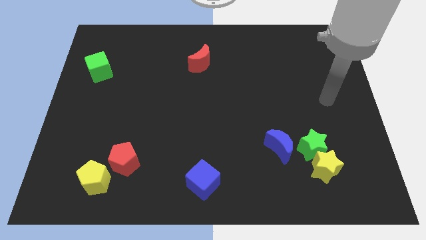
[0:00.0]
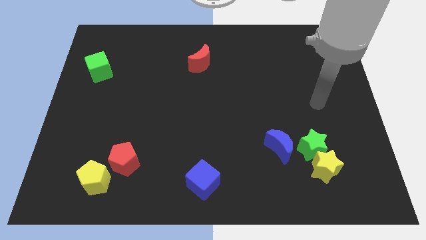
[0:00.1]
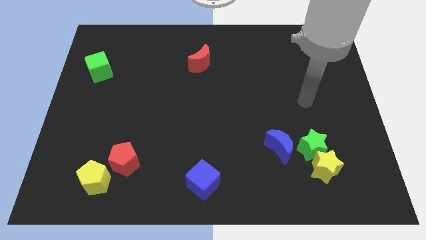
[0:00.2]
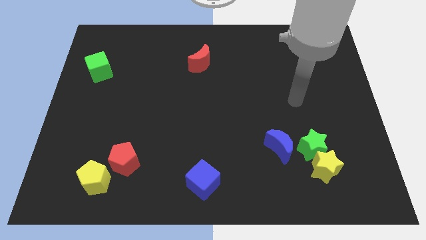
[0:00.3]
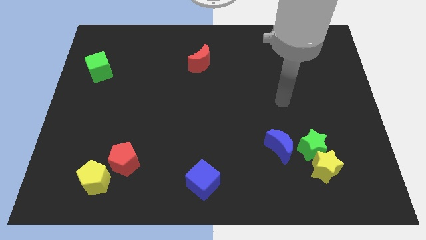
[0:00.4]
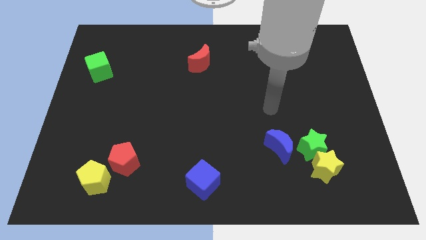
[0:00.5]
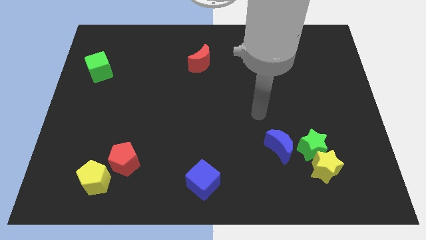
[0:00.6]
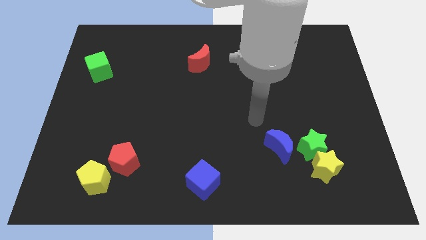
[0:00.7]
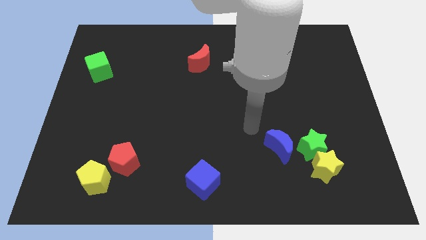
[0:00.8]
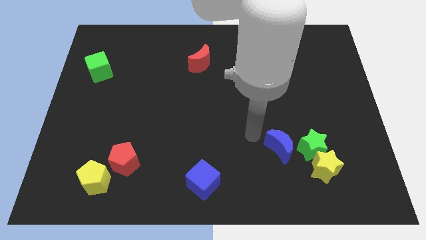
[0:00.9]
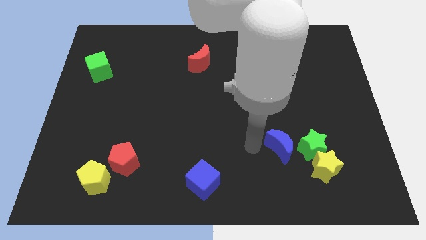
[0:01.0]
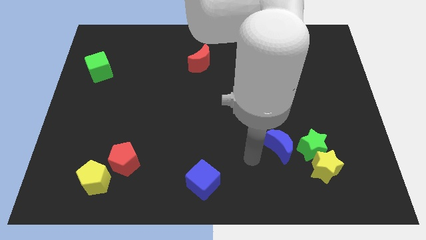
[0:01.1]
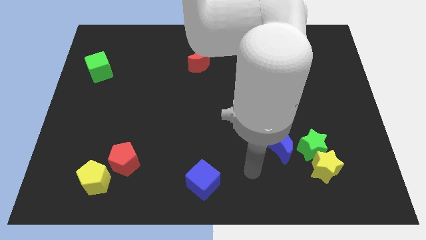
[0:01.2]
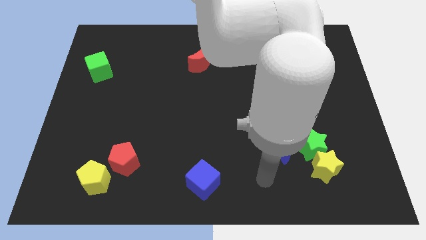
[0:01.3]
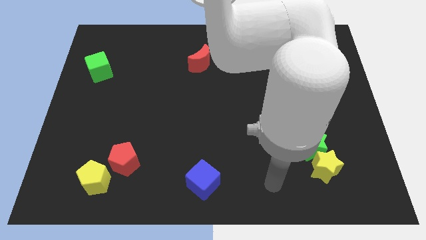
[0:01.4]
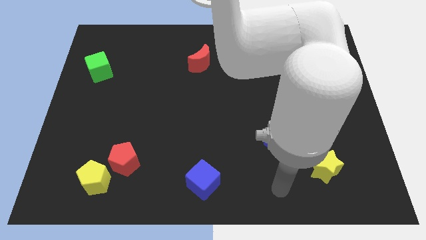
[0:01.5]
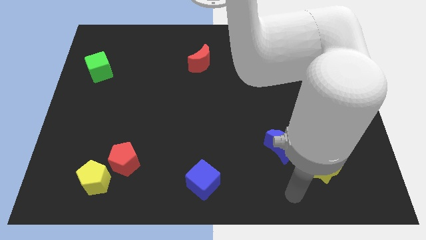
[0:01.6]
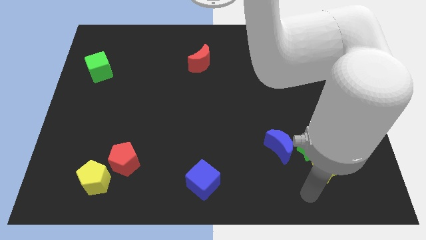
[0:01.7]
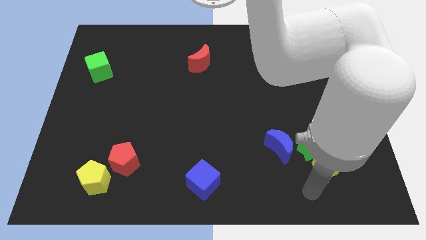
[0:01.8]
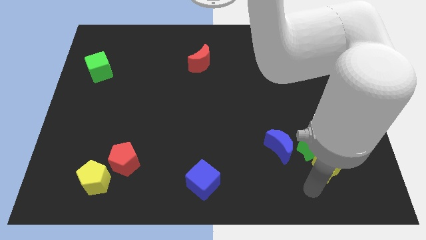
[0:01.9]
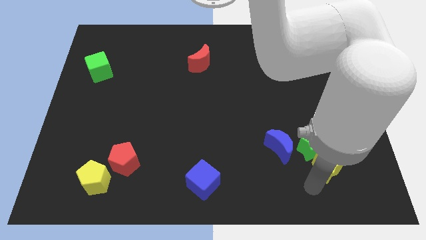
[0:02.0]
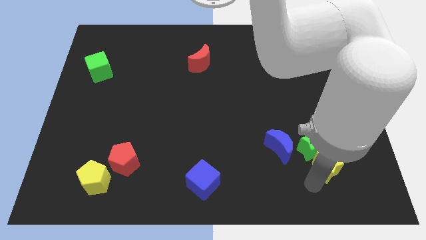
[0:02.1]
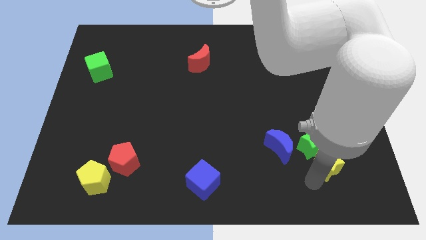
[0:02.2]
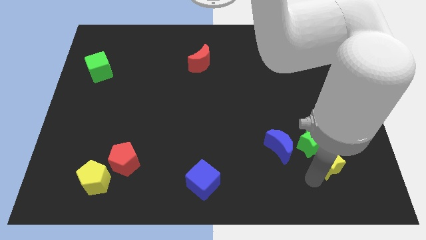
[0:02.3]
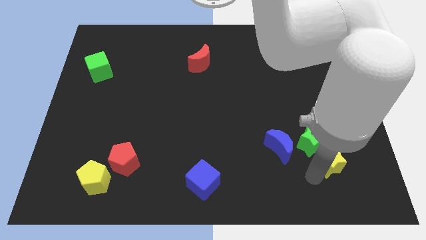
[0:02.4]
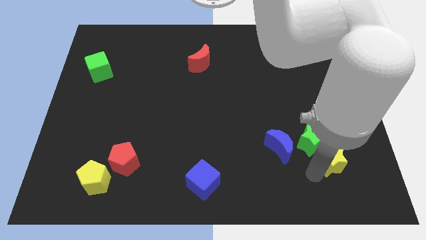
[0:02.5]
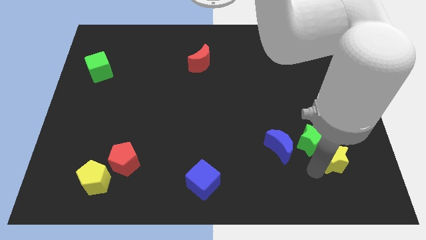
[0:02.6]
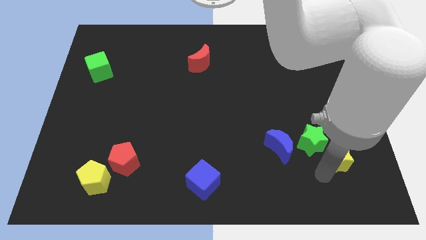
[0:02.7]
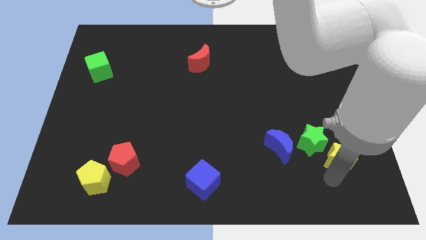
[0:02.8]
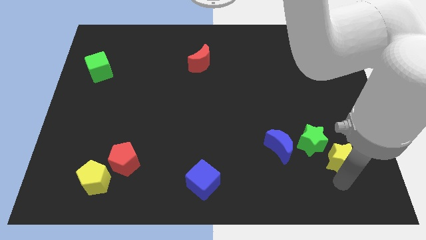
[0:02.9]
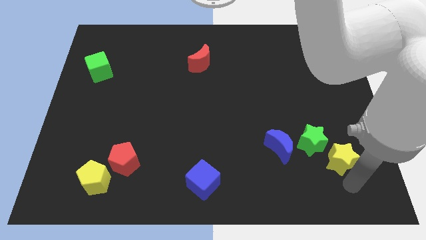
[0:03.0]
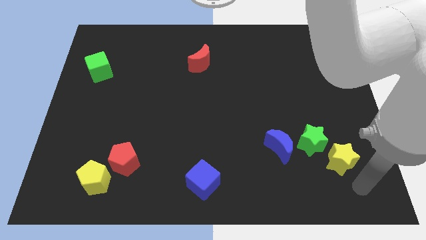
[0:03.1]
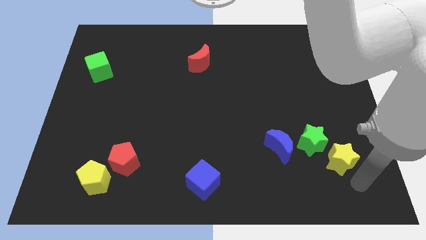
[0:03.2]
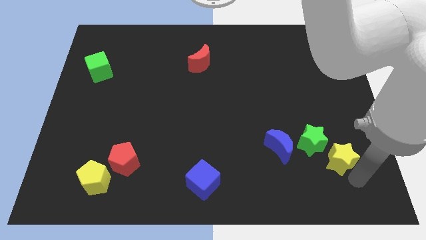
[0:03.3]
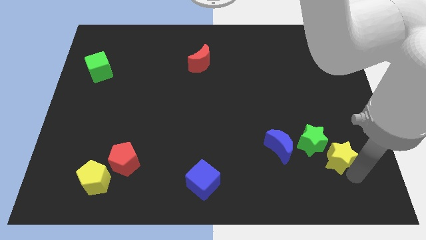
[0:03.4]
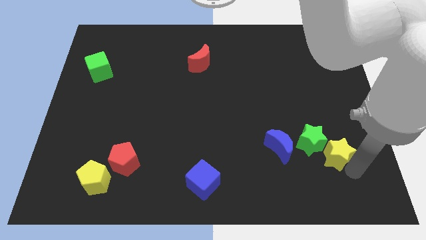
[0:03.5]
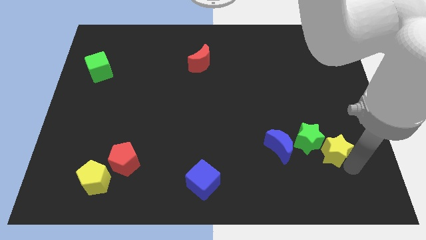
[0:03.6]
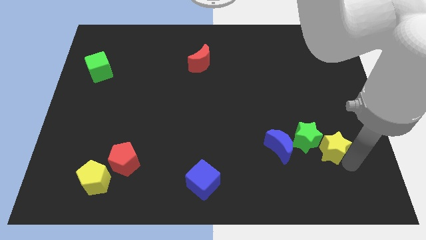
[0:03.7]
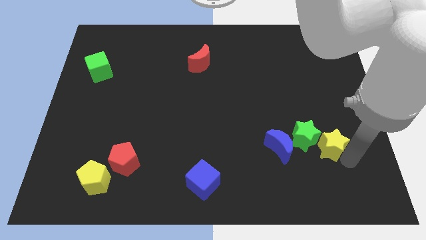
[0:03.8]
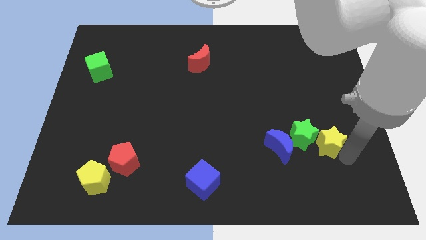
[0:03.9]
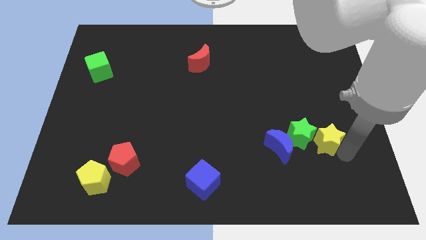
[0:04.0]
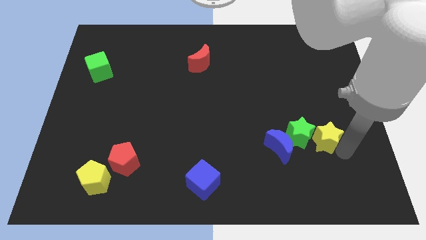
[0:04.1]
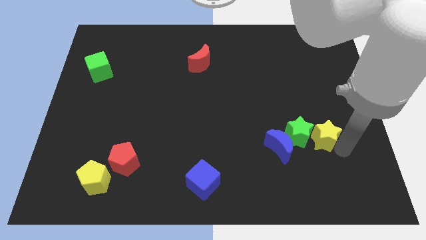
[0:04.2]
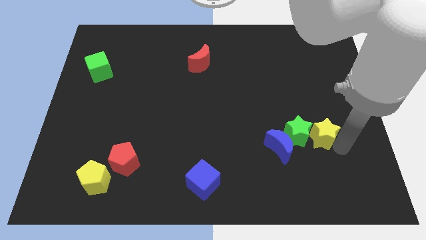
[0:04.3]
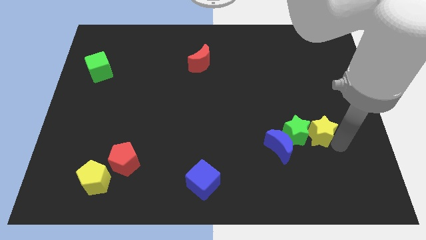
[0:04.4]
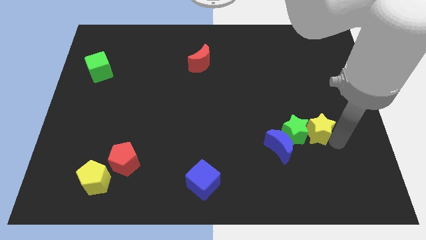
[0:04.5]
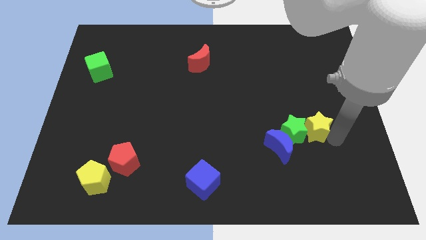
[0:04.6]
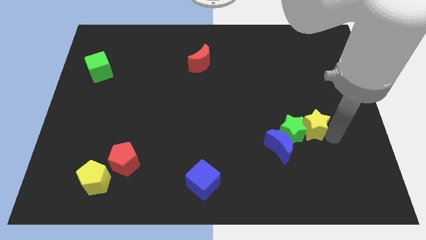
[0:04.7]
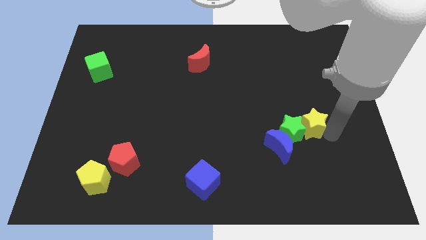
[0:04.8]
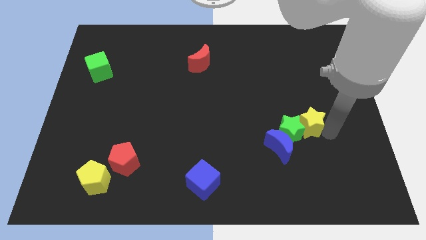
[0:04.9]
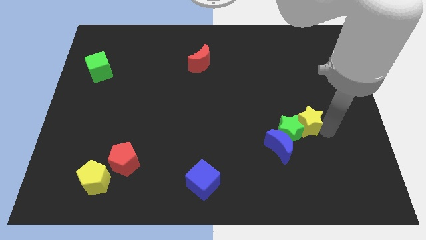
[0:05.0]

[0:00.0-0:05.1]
push the yellow star somewhat upwards and then left

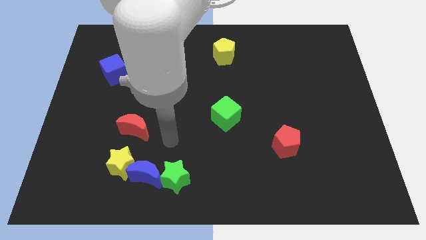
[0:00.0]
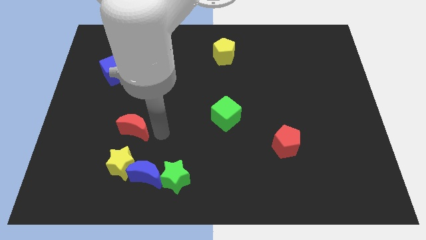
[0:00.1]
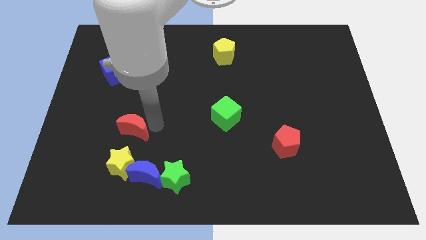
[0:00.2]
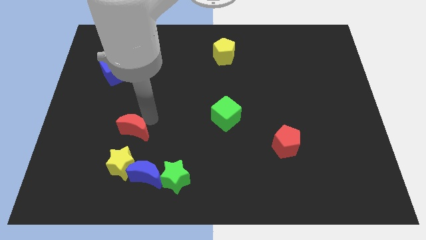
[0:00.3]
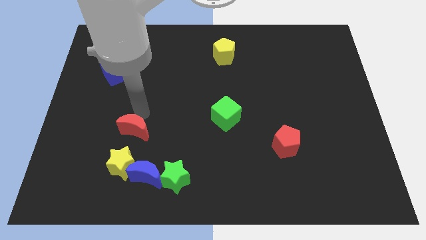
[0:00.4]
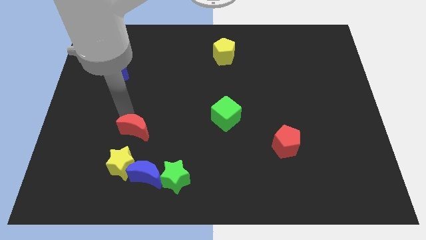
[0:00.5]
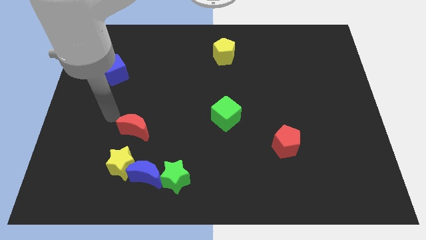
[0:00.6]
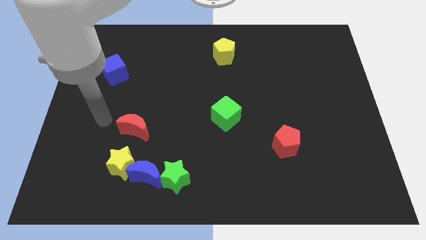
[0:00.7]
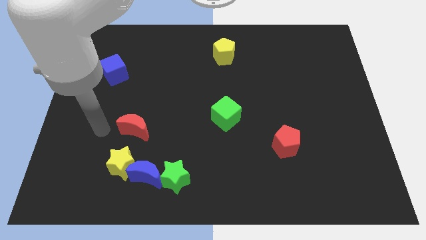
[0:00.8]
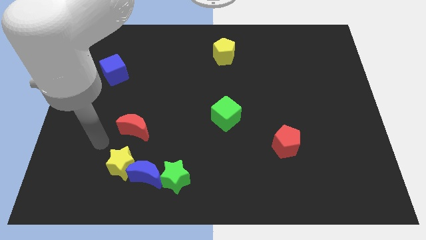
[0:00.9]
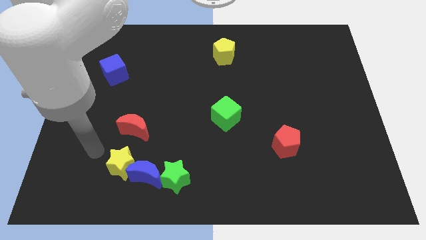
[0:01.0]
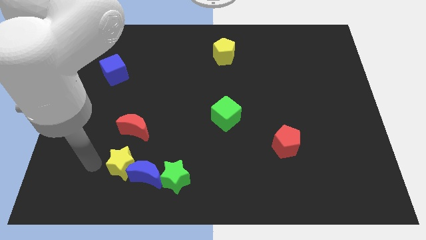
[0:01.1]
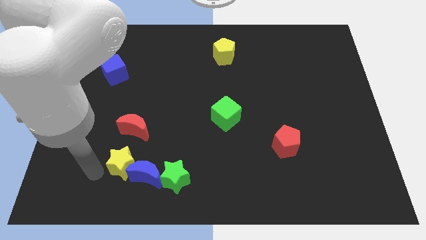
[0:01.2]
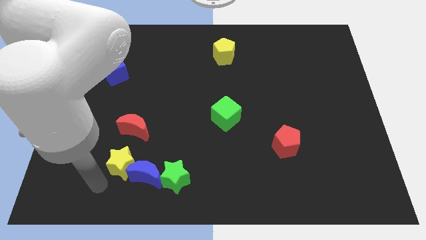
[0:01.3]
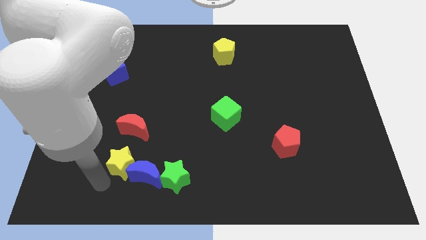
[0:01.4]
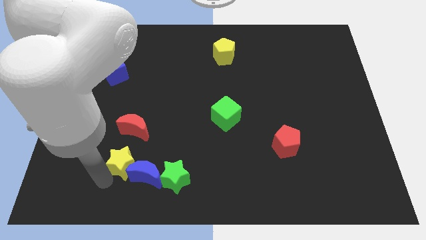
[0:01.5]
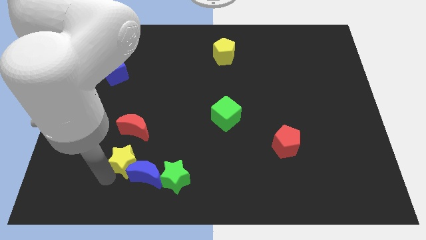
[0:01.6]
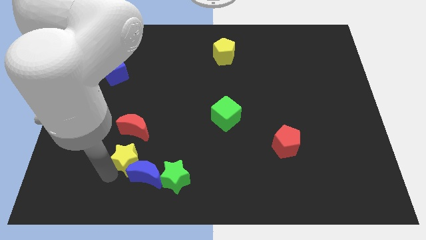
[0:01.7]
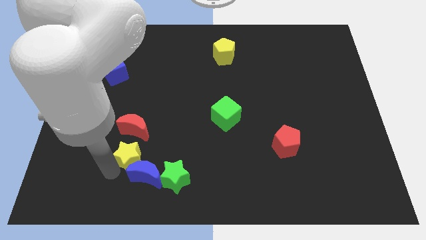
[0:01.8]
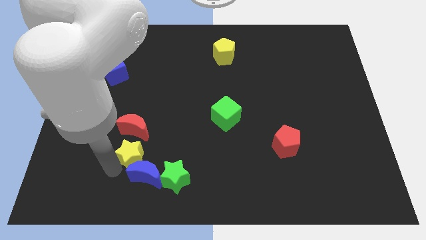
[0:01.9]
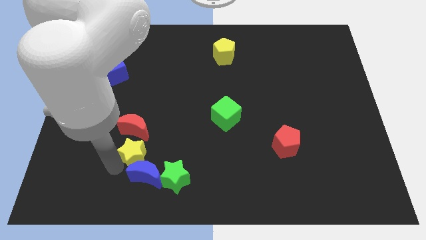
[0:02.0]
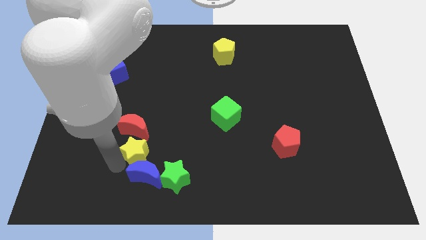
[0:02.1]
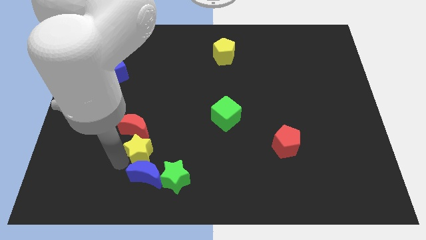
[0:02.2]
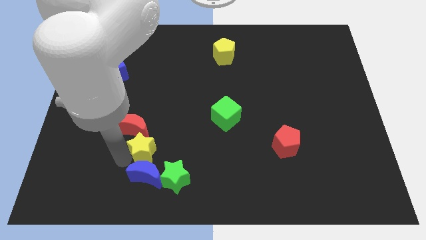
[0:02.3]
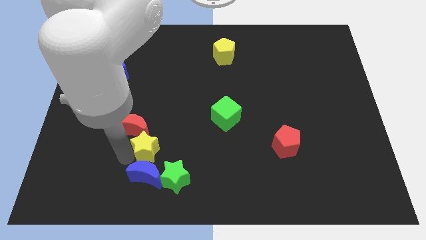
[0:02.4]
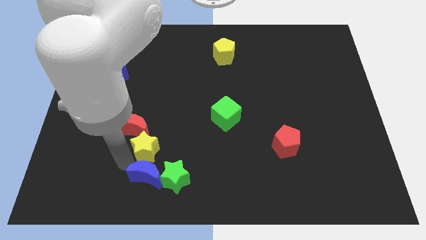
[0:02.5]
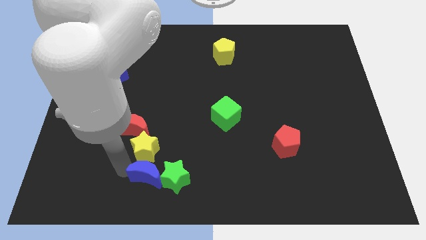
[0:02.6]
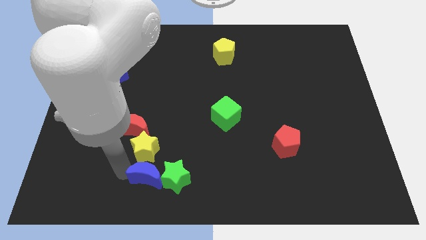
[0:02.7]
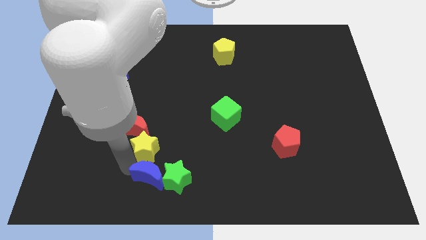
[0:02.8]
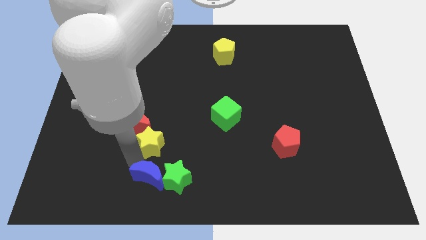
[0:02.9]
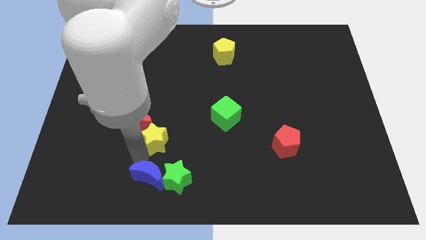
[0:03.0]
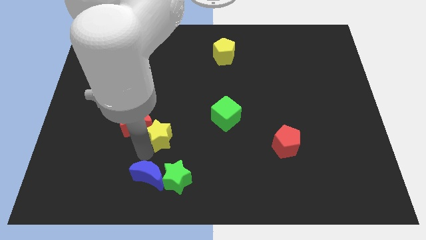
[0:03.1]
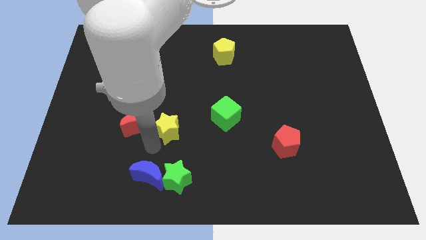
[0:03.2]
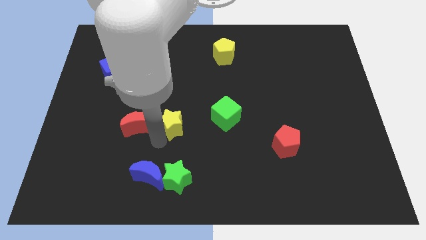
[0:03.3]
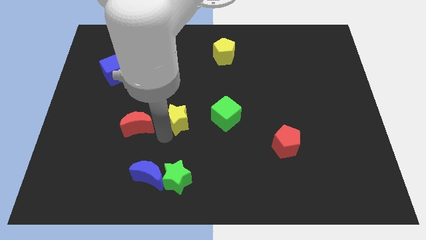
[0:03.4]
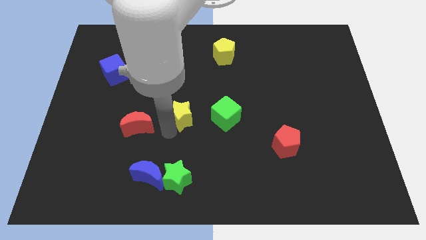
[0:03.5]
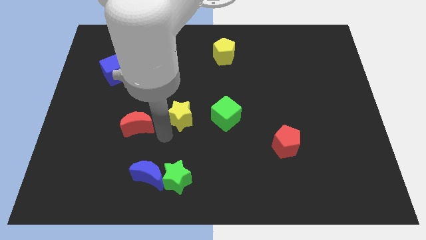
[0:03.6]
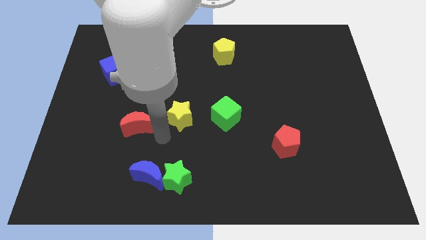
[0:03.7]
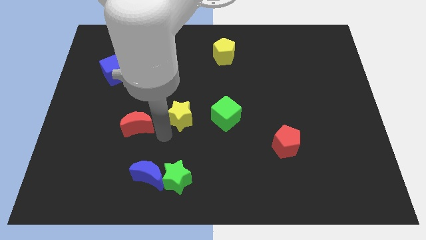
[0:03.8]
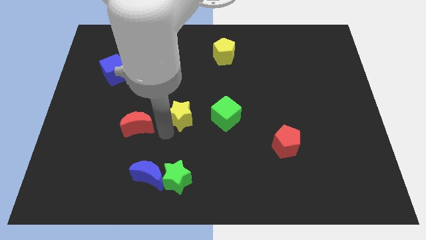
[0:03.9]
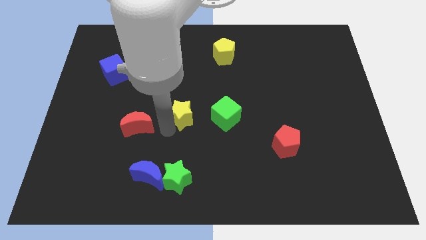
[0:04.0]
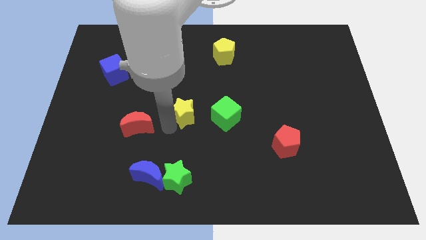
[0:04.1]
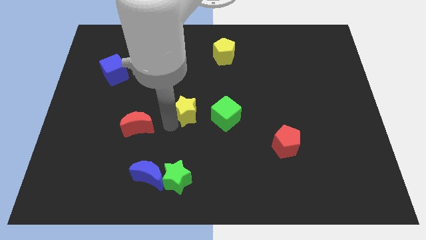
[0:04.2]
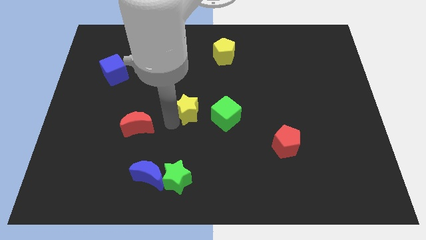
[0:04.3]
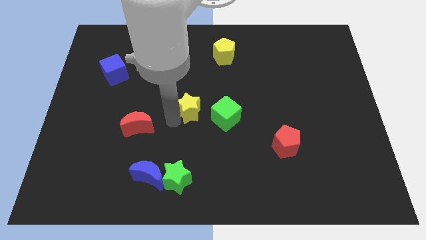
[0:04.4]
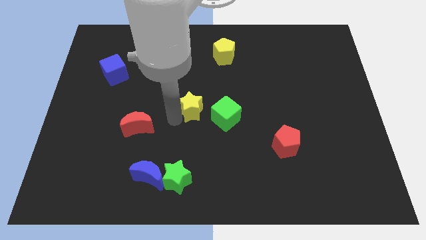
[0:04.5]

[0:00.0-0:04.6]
push the yellow star diagonally upwards and right
